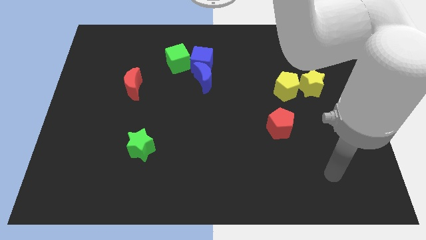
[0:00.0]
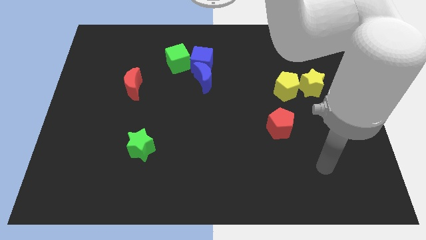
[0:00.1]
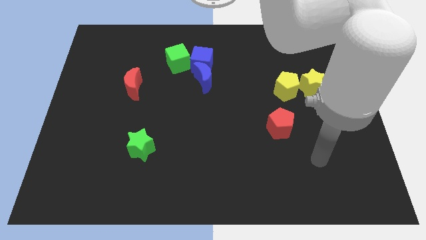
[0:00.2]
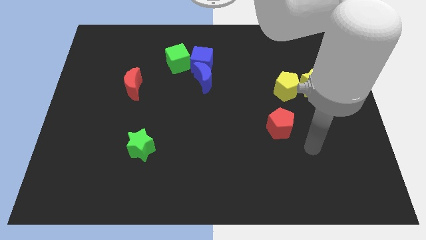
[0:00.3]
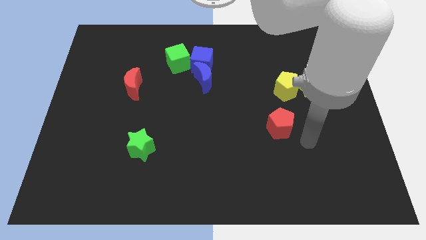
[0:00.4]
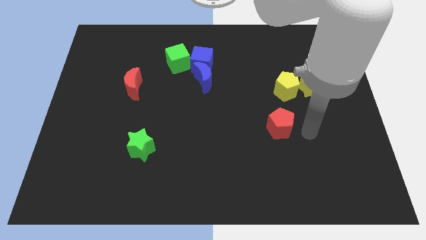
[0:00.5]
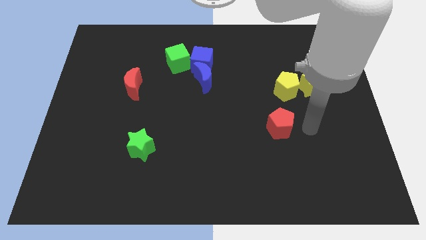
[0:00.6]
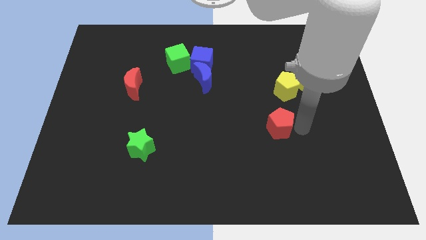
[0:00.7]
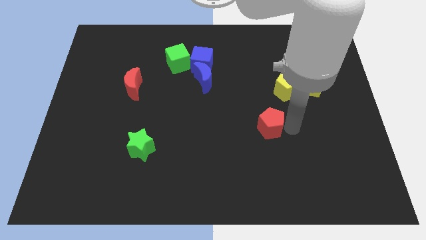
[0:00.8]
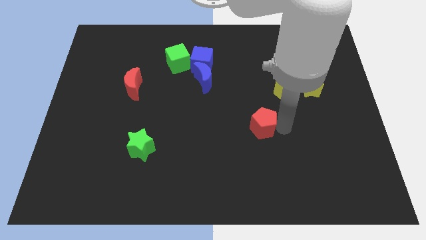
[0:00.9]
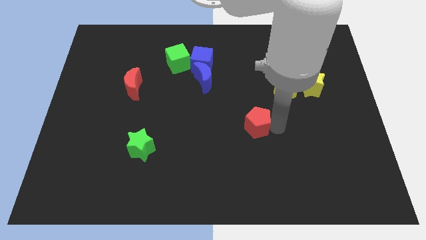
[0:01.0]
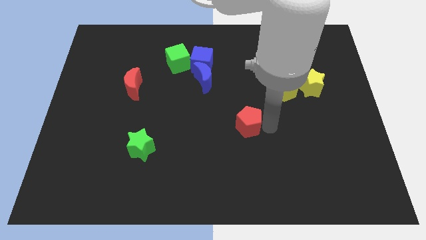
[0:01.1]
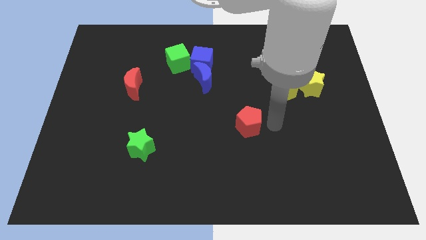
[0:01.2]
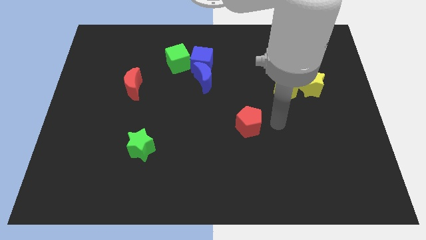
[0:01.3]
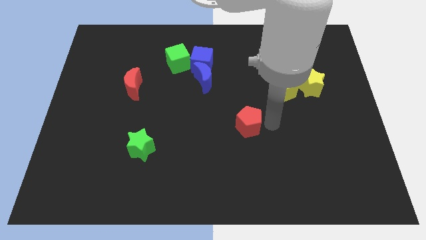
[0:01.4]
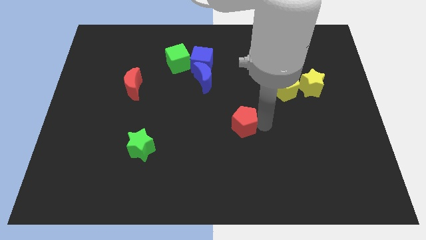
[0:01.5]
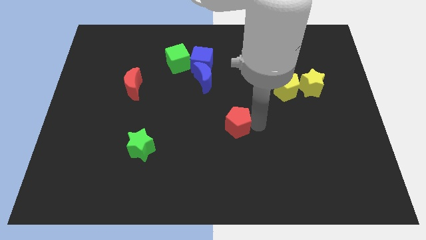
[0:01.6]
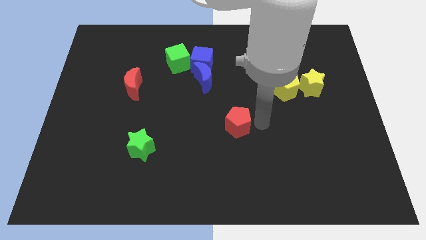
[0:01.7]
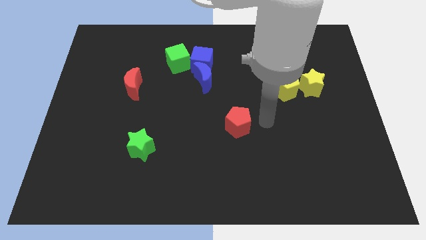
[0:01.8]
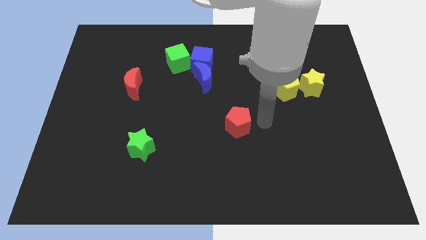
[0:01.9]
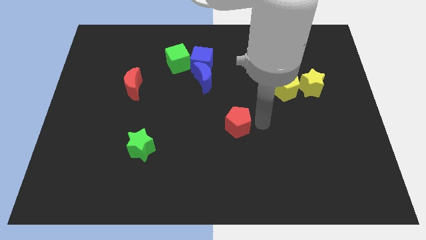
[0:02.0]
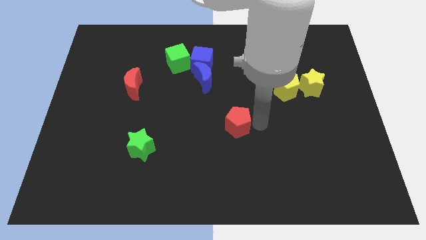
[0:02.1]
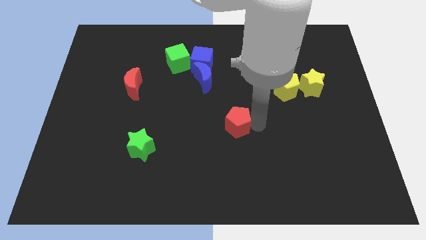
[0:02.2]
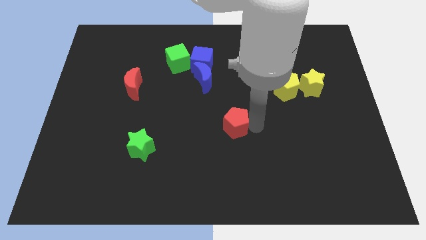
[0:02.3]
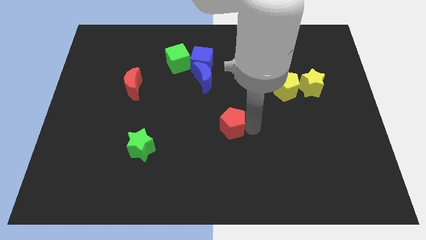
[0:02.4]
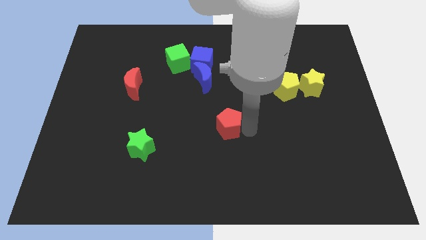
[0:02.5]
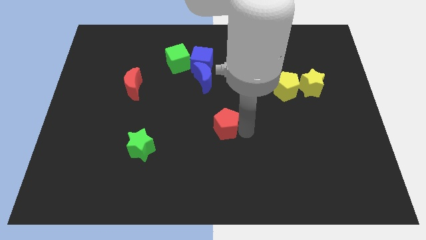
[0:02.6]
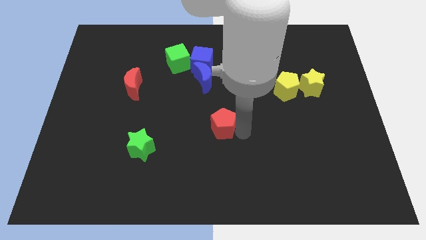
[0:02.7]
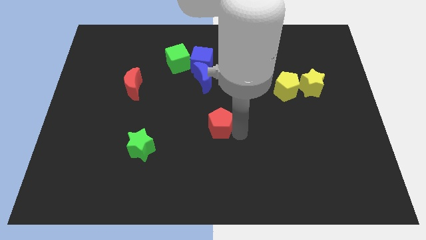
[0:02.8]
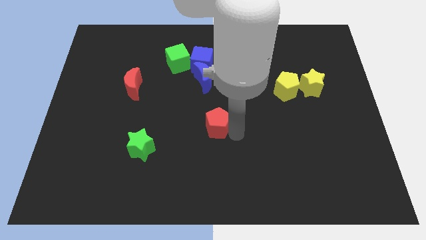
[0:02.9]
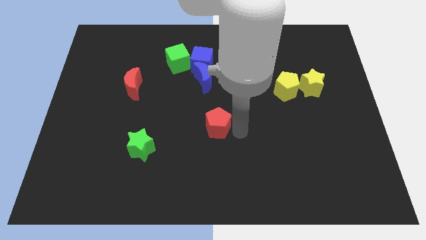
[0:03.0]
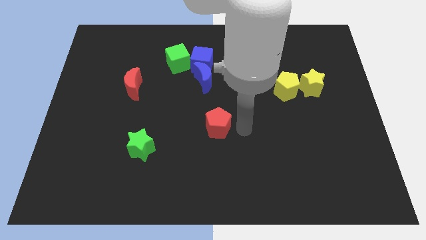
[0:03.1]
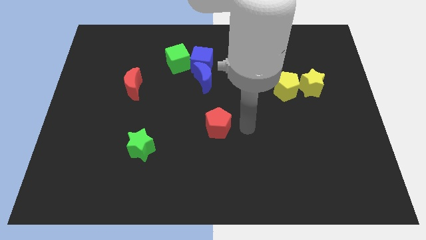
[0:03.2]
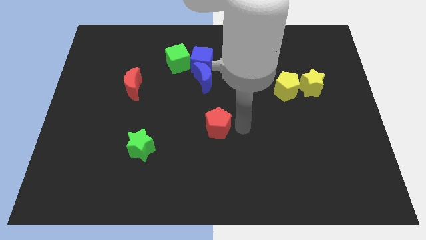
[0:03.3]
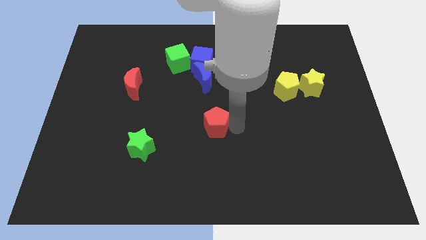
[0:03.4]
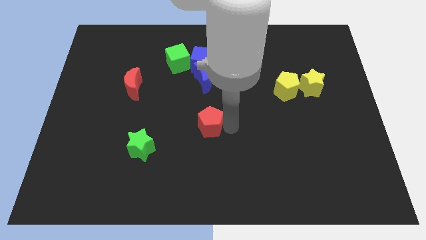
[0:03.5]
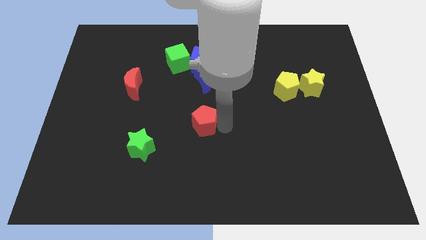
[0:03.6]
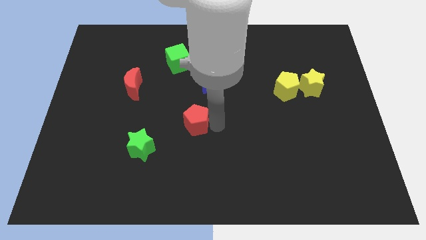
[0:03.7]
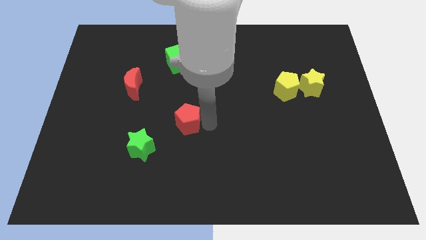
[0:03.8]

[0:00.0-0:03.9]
move the red pentagon left

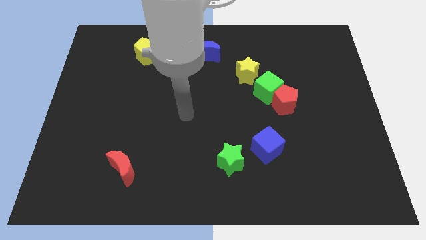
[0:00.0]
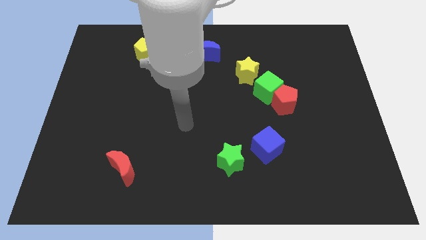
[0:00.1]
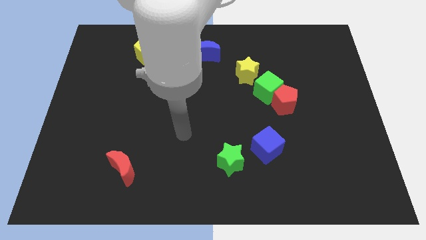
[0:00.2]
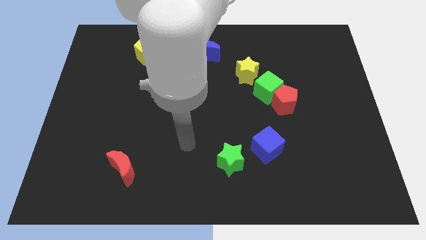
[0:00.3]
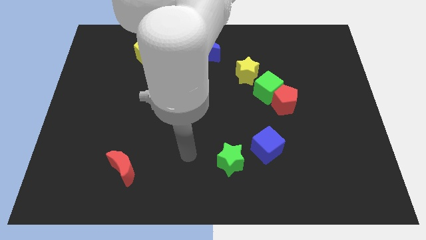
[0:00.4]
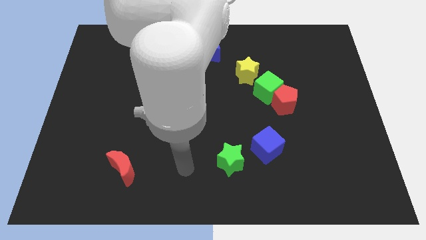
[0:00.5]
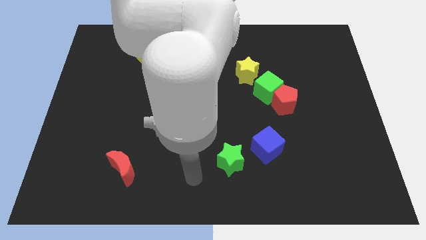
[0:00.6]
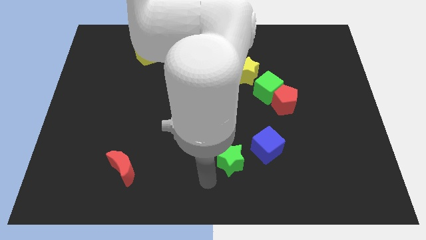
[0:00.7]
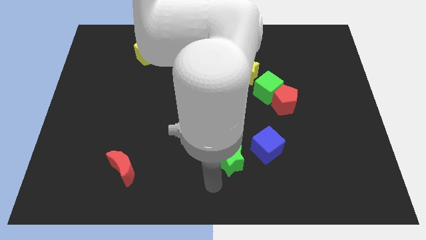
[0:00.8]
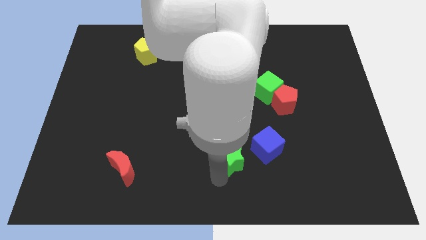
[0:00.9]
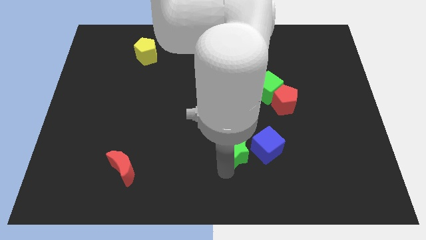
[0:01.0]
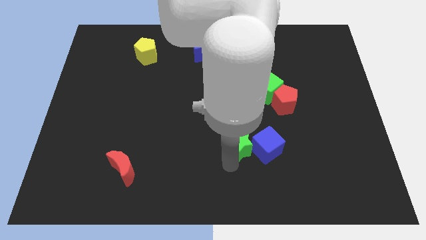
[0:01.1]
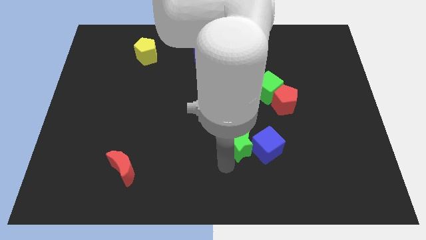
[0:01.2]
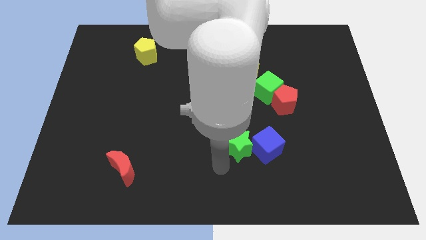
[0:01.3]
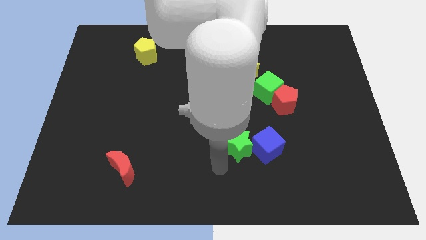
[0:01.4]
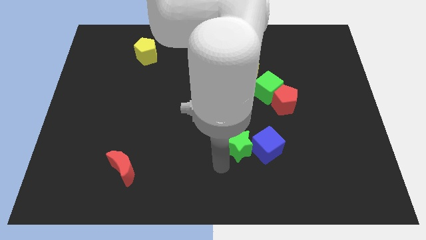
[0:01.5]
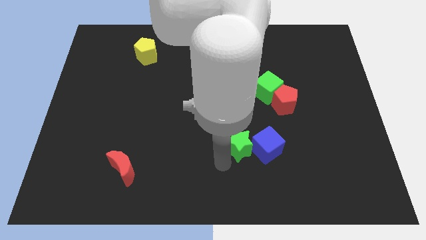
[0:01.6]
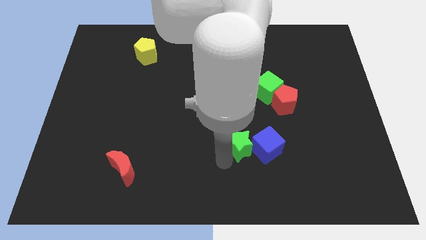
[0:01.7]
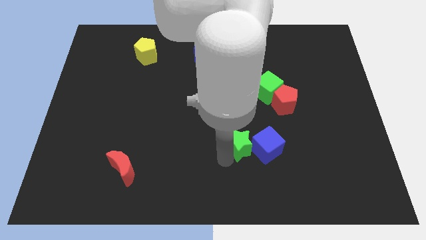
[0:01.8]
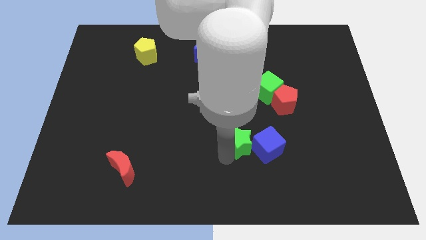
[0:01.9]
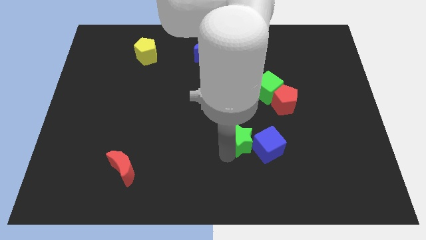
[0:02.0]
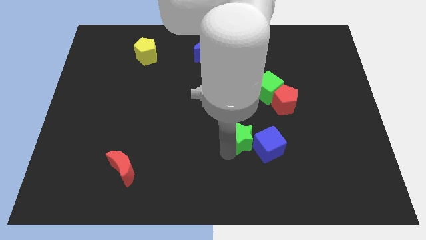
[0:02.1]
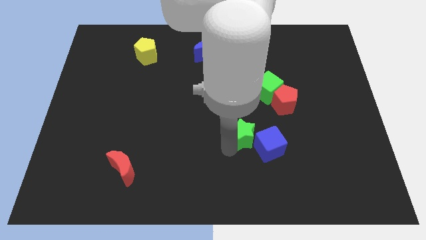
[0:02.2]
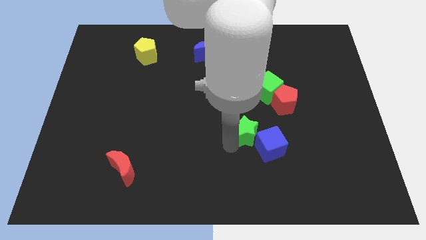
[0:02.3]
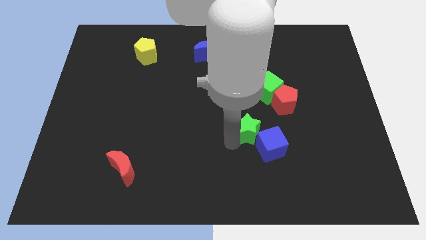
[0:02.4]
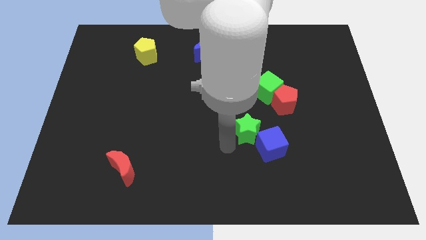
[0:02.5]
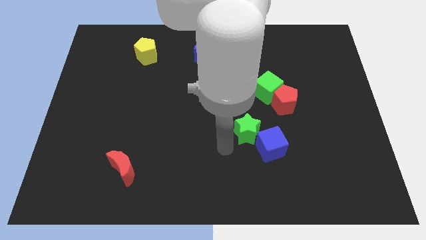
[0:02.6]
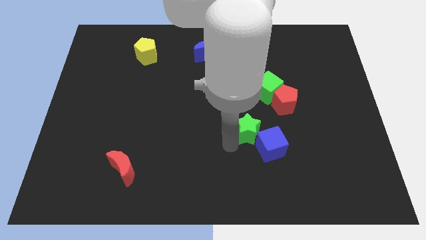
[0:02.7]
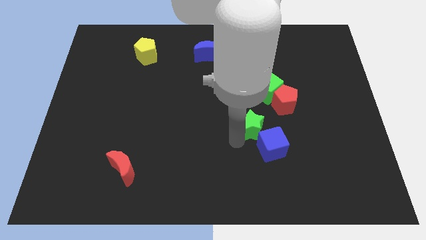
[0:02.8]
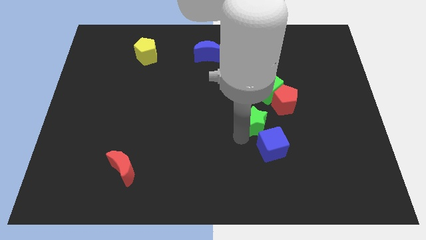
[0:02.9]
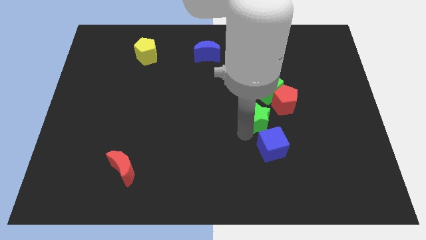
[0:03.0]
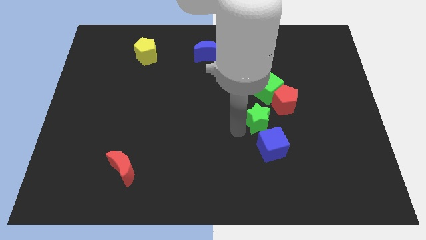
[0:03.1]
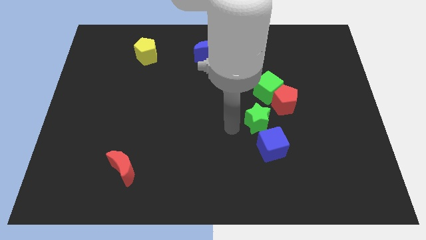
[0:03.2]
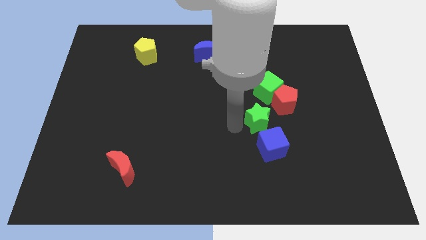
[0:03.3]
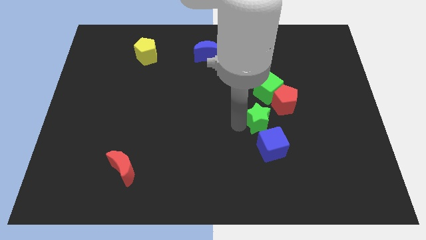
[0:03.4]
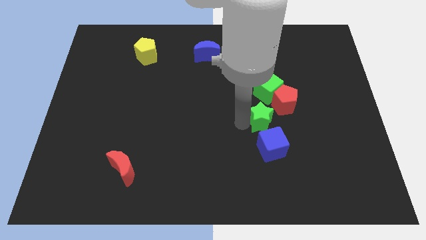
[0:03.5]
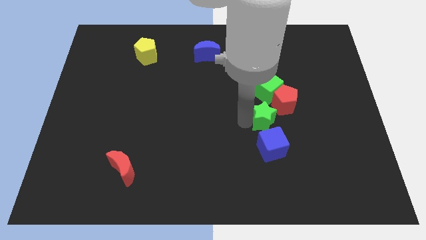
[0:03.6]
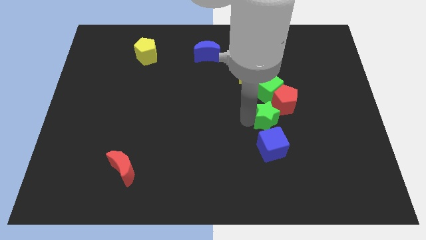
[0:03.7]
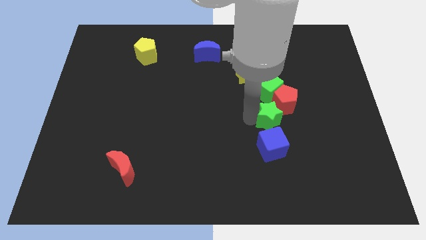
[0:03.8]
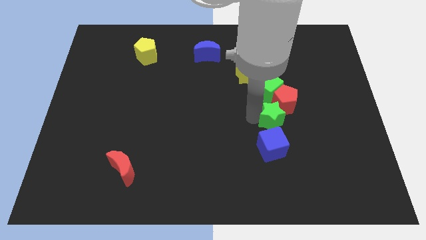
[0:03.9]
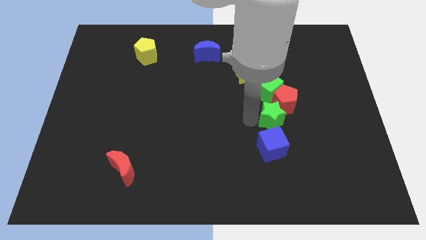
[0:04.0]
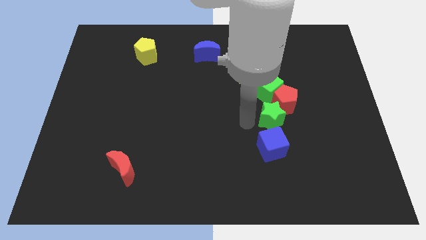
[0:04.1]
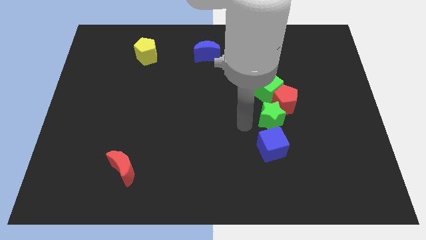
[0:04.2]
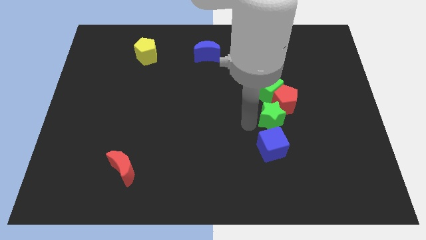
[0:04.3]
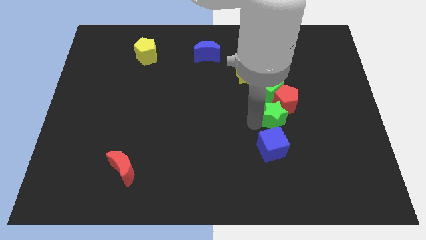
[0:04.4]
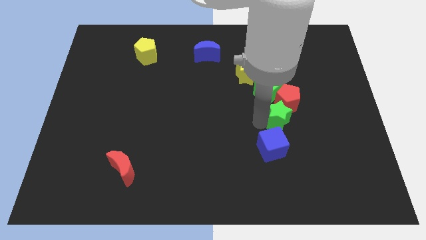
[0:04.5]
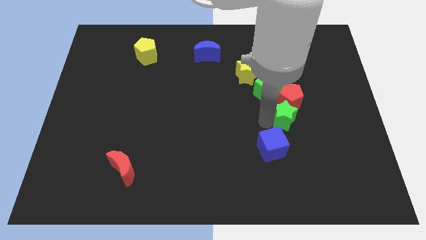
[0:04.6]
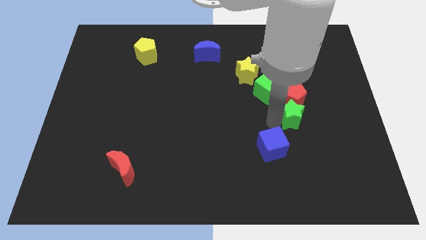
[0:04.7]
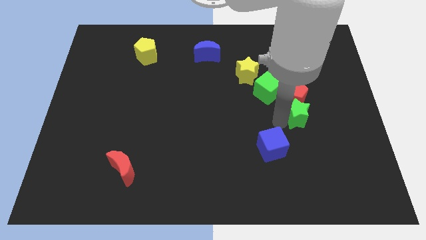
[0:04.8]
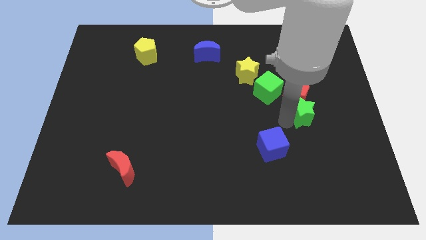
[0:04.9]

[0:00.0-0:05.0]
move the green star upwards and right diagonally
